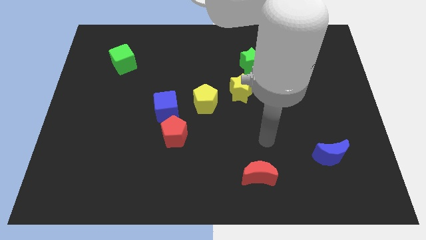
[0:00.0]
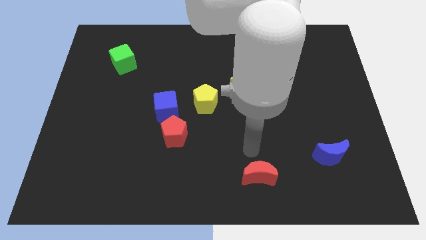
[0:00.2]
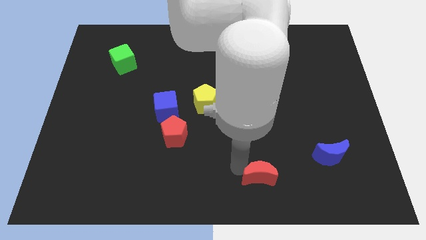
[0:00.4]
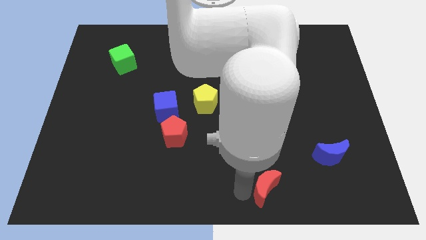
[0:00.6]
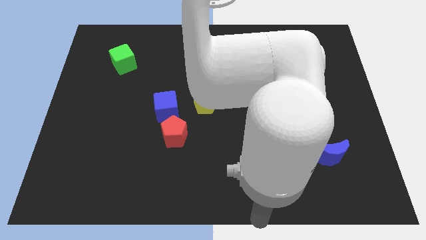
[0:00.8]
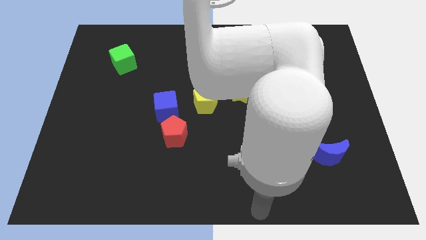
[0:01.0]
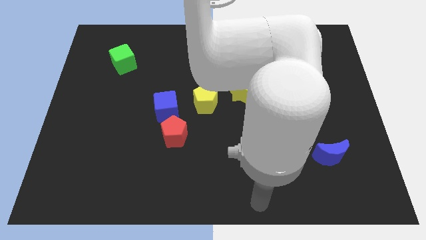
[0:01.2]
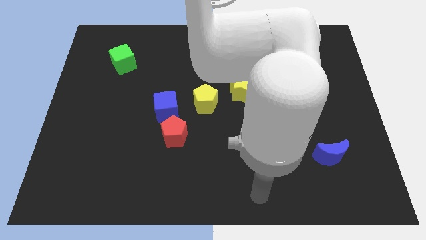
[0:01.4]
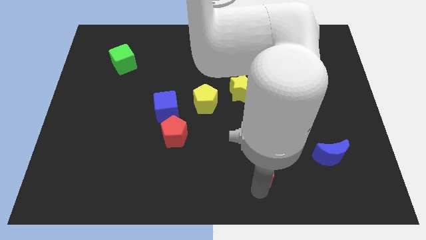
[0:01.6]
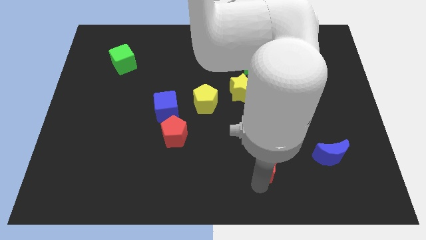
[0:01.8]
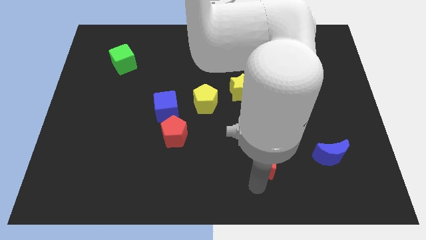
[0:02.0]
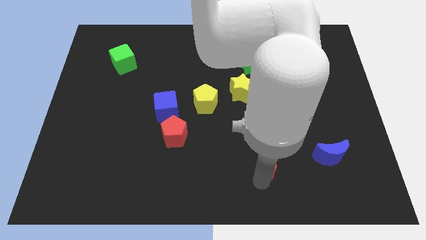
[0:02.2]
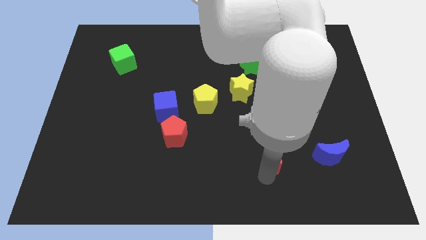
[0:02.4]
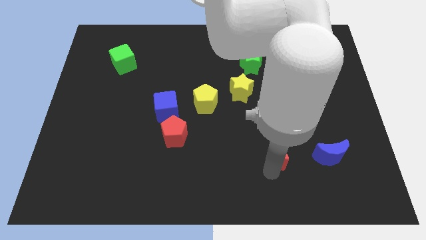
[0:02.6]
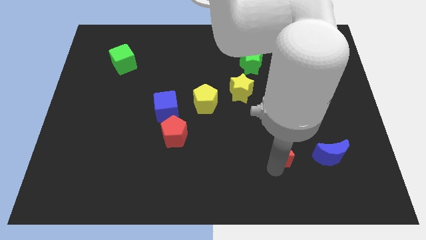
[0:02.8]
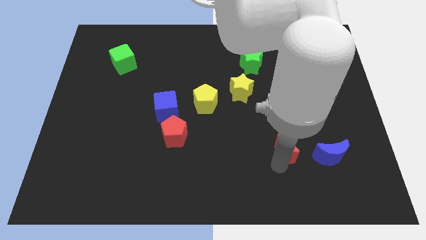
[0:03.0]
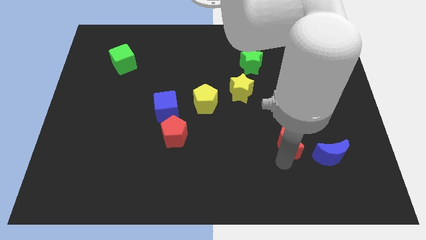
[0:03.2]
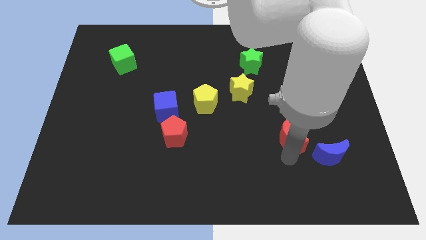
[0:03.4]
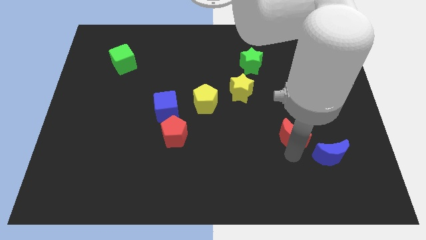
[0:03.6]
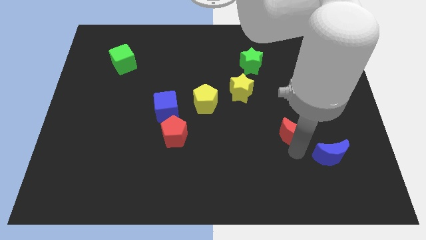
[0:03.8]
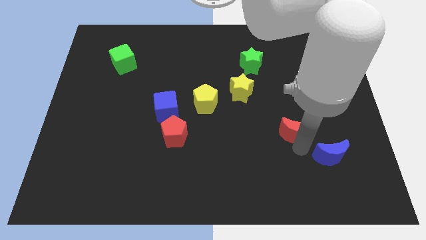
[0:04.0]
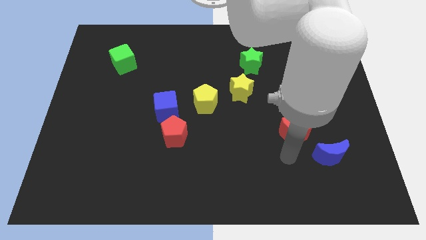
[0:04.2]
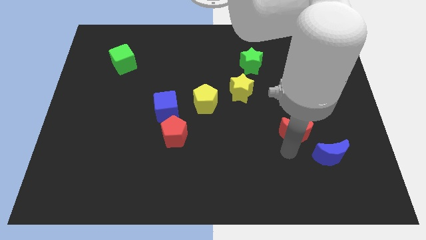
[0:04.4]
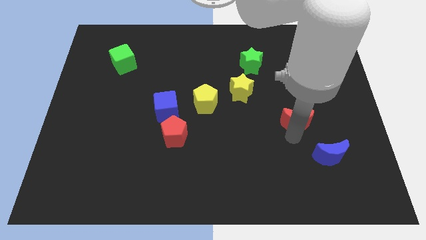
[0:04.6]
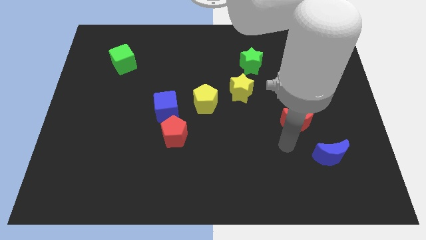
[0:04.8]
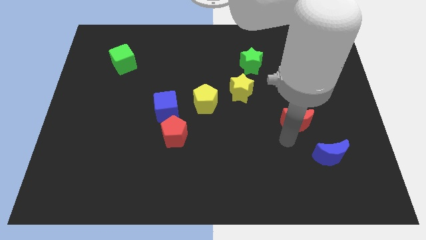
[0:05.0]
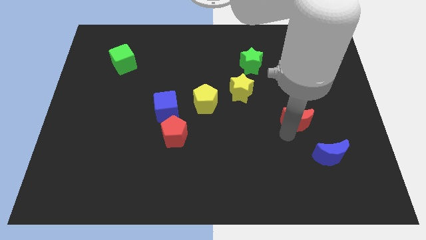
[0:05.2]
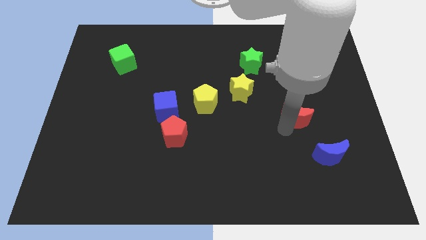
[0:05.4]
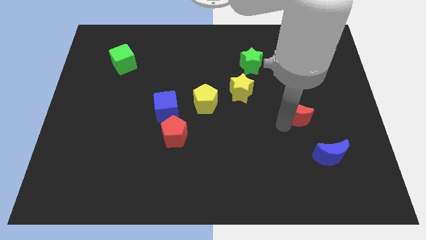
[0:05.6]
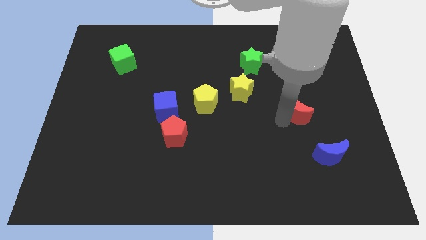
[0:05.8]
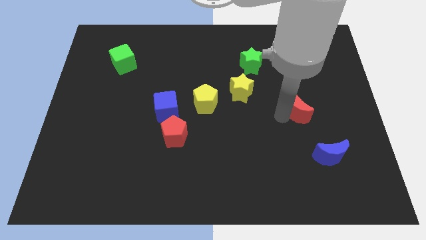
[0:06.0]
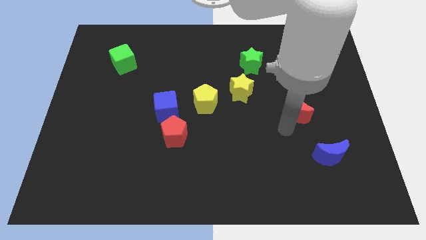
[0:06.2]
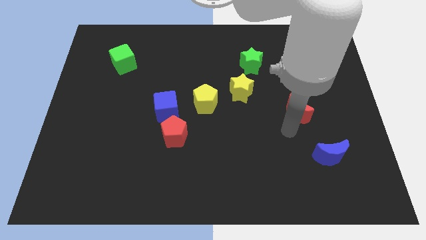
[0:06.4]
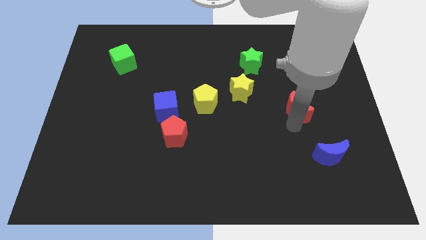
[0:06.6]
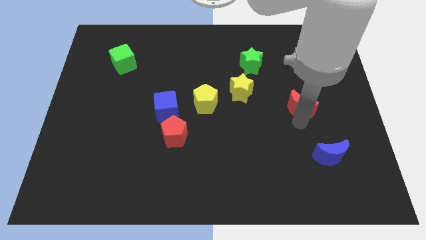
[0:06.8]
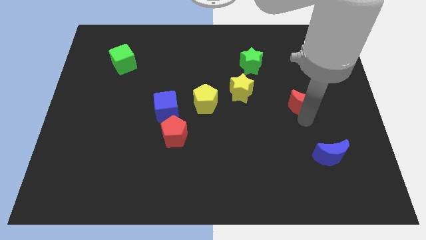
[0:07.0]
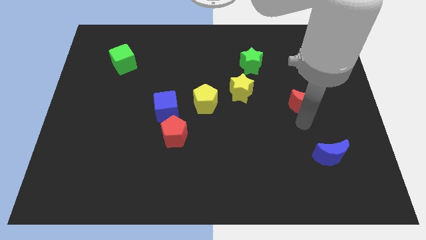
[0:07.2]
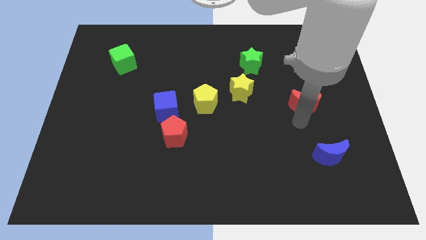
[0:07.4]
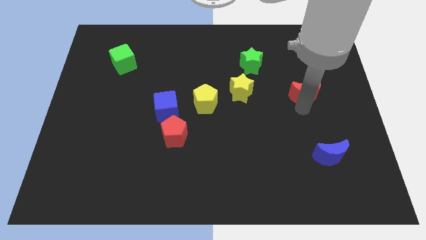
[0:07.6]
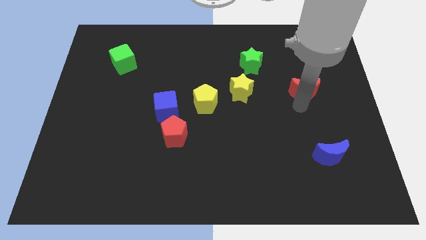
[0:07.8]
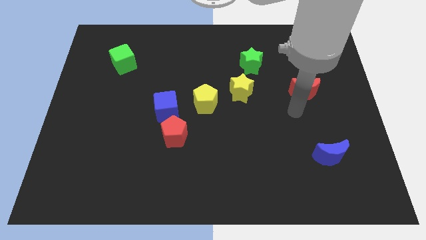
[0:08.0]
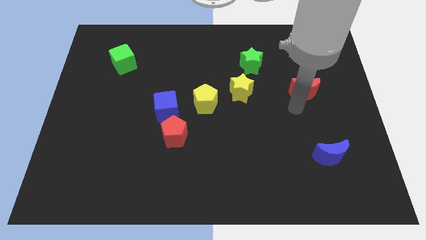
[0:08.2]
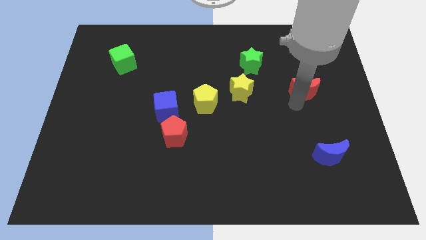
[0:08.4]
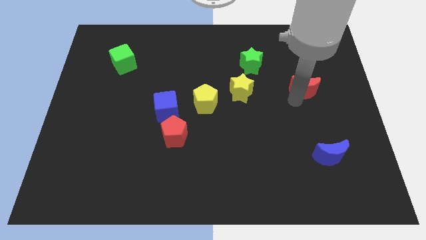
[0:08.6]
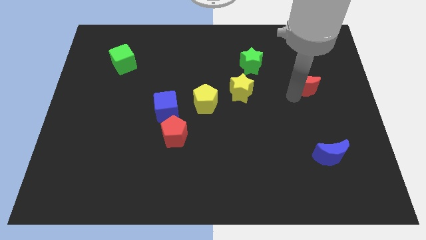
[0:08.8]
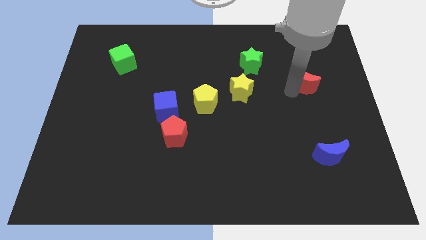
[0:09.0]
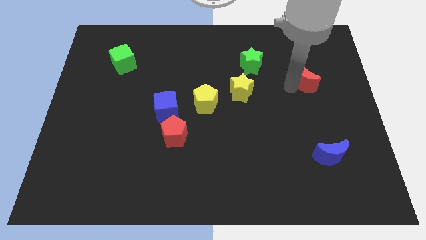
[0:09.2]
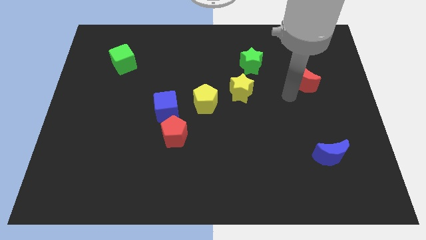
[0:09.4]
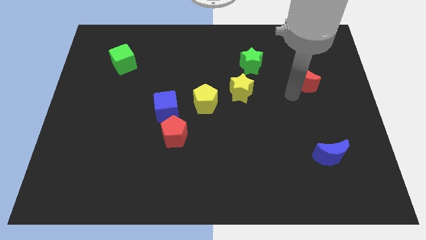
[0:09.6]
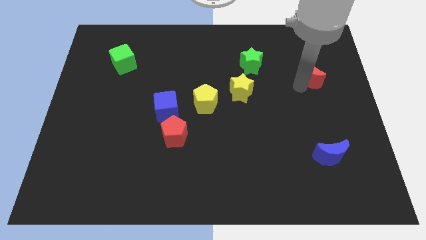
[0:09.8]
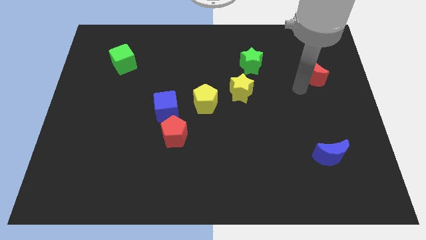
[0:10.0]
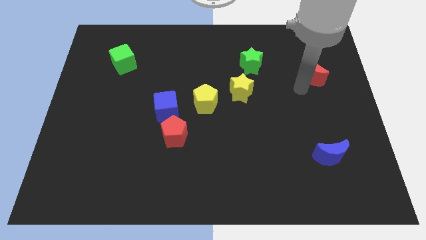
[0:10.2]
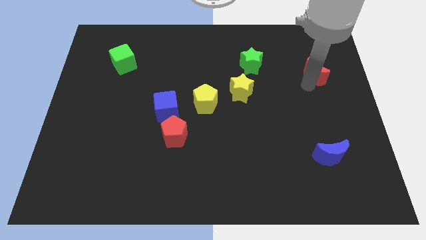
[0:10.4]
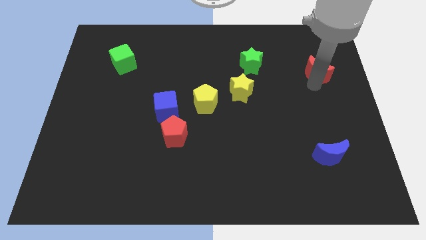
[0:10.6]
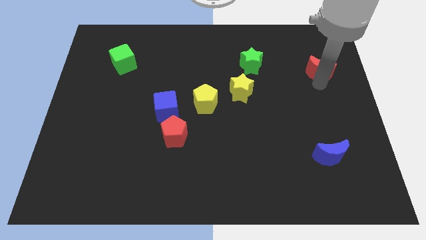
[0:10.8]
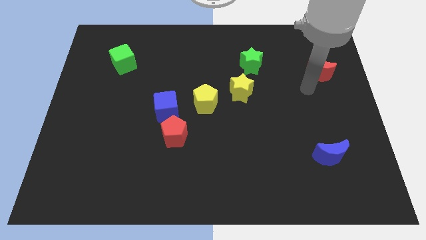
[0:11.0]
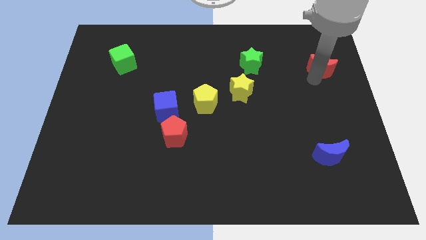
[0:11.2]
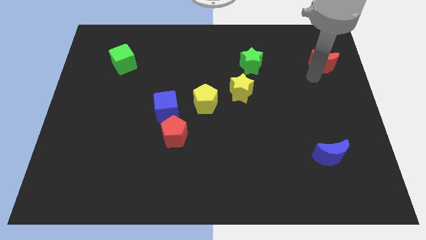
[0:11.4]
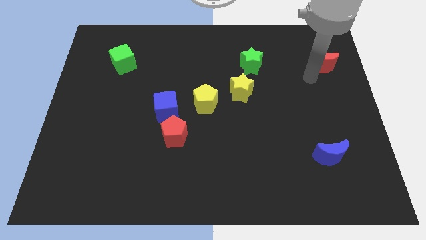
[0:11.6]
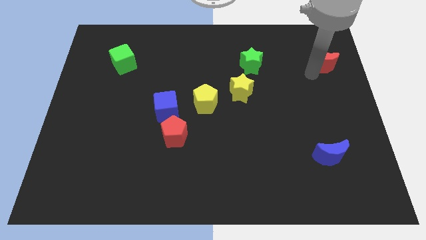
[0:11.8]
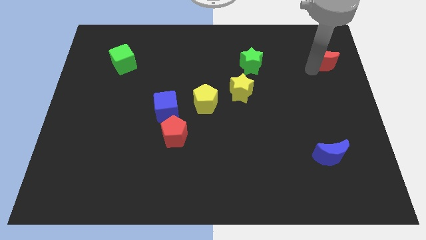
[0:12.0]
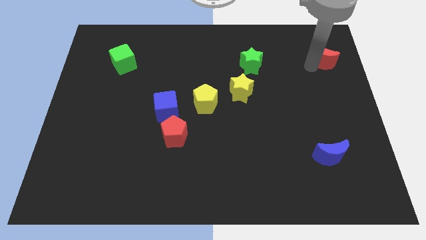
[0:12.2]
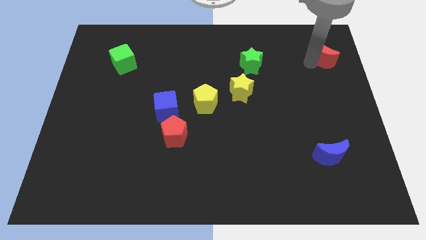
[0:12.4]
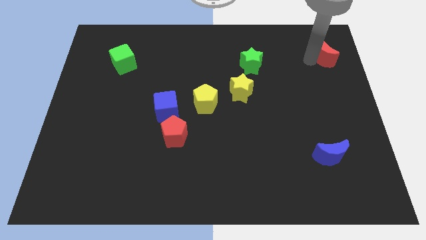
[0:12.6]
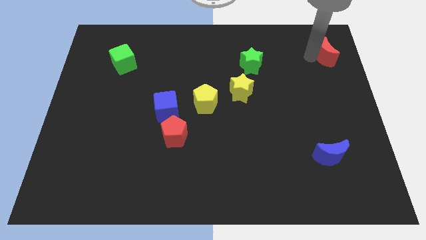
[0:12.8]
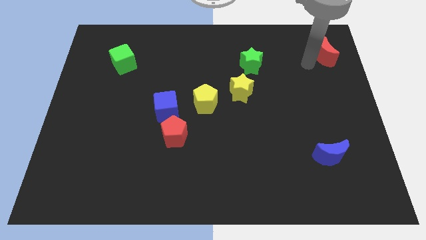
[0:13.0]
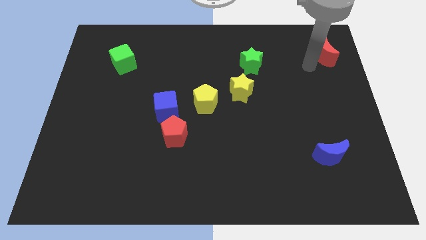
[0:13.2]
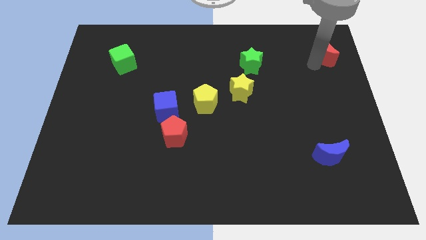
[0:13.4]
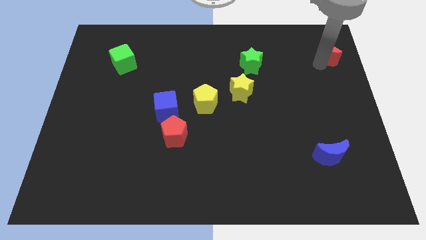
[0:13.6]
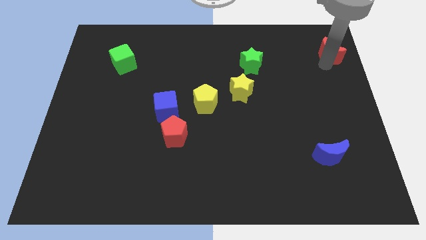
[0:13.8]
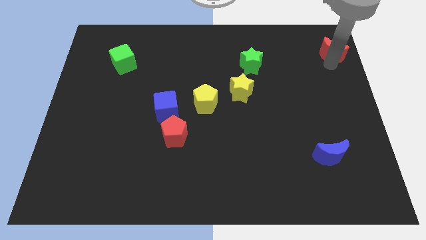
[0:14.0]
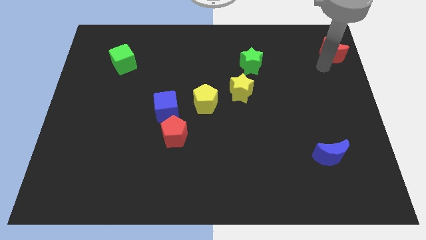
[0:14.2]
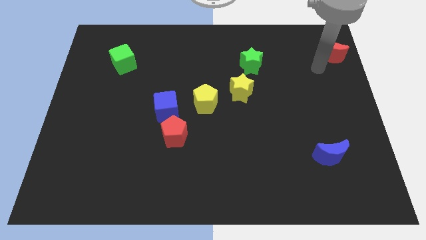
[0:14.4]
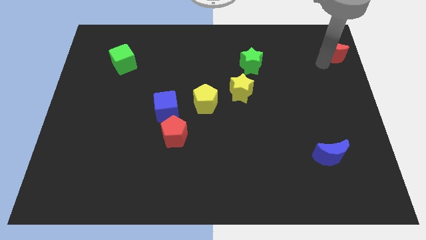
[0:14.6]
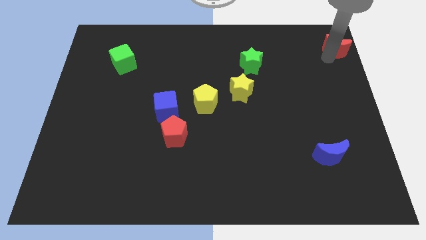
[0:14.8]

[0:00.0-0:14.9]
put the red moon to the top right
